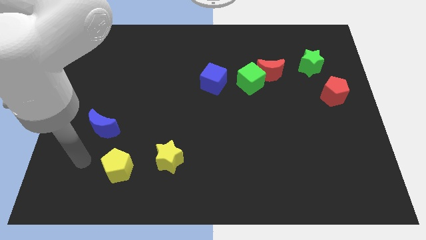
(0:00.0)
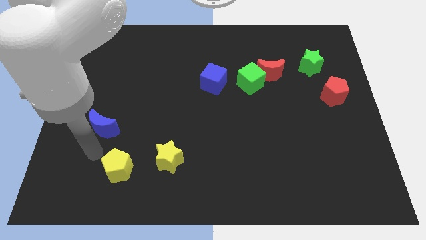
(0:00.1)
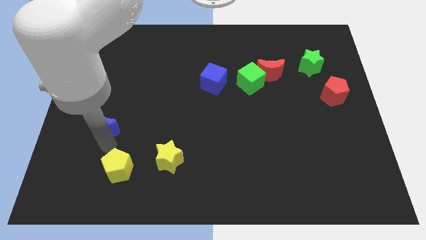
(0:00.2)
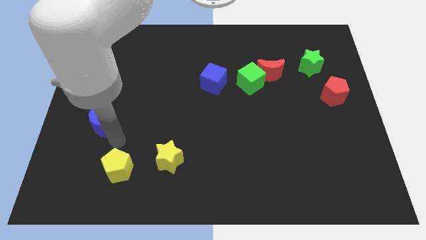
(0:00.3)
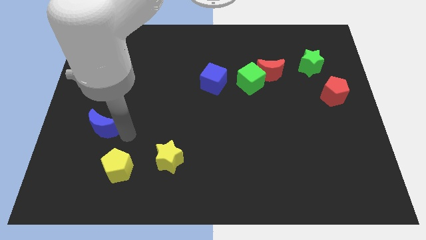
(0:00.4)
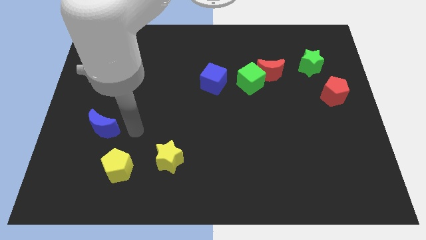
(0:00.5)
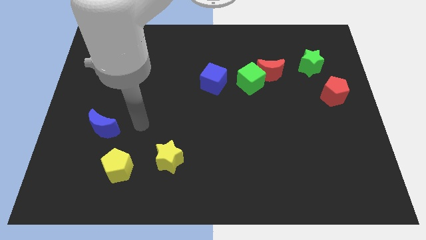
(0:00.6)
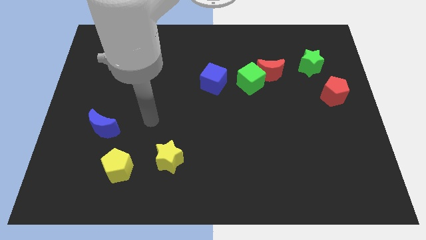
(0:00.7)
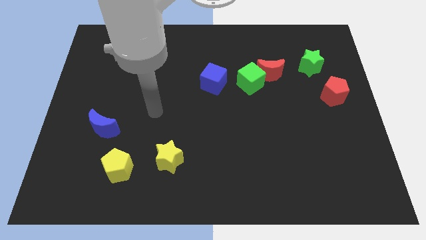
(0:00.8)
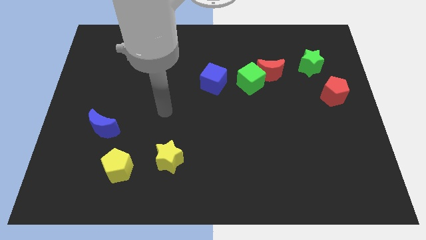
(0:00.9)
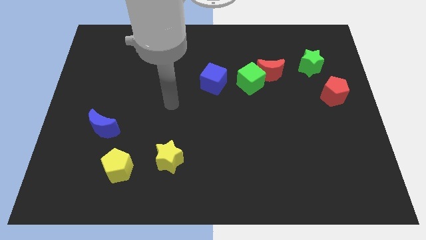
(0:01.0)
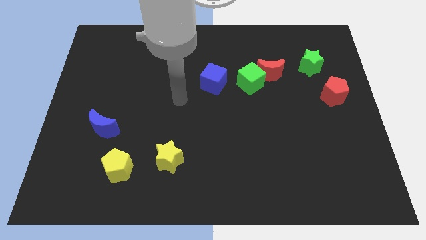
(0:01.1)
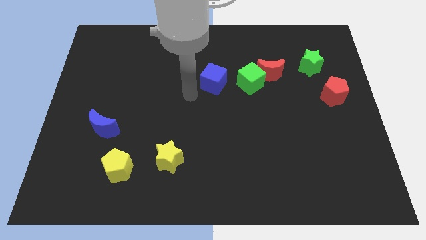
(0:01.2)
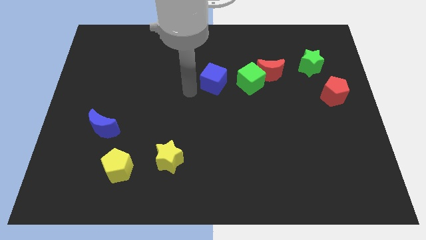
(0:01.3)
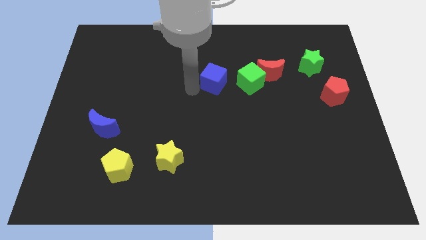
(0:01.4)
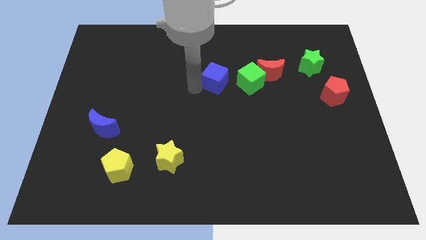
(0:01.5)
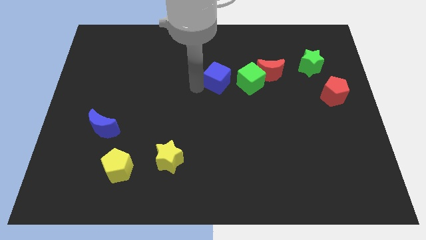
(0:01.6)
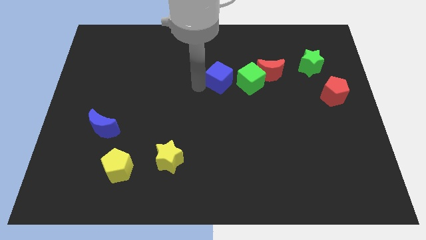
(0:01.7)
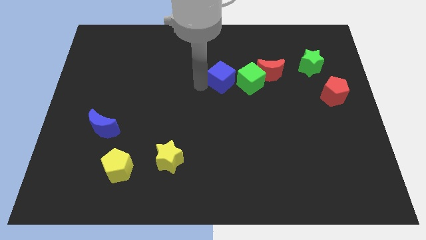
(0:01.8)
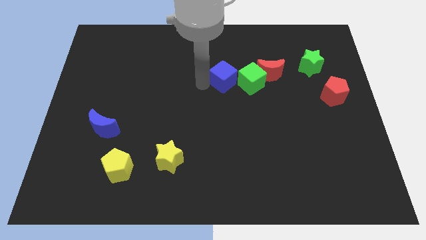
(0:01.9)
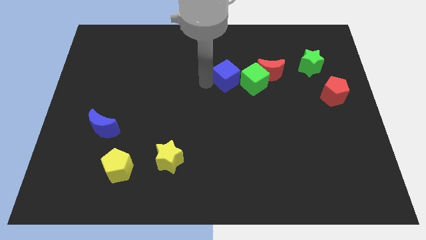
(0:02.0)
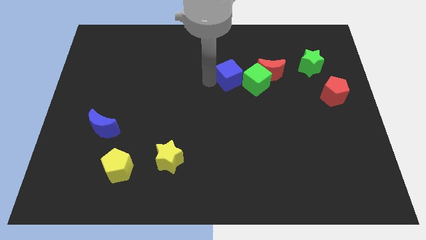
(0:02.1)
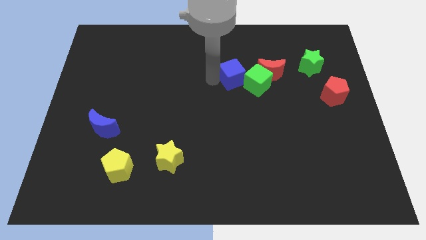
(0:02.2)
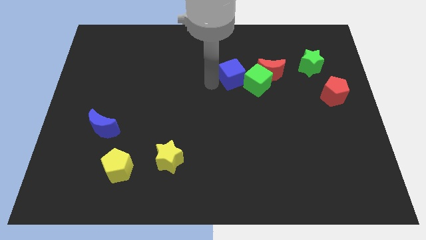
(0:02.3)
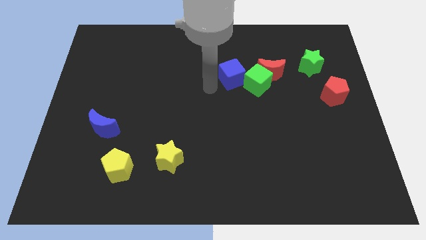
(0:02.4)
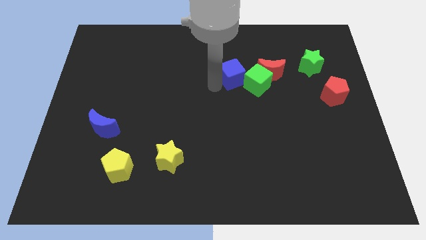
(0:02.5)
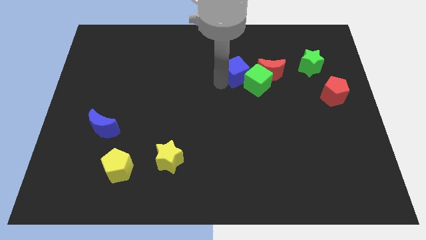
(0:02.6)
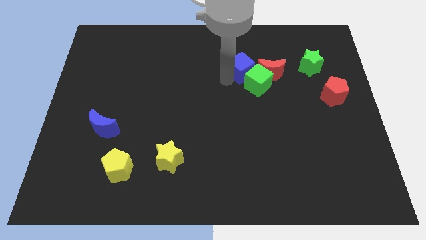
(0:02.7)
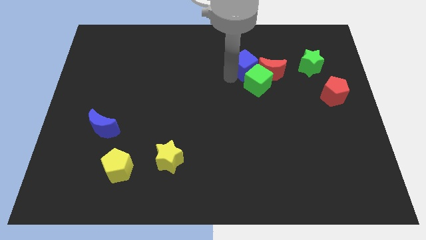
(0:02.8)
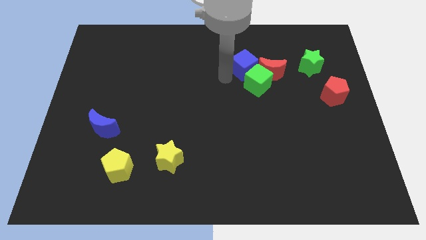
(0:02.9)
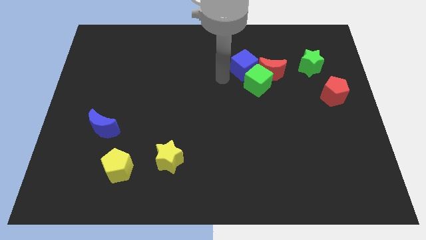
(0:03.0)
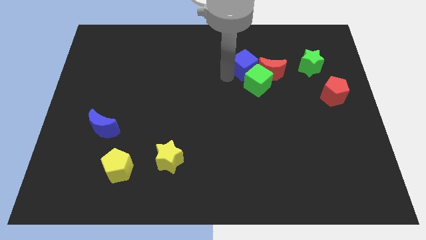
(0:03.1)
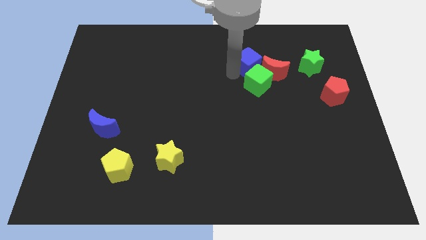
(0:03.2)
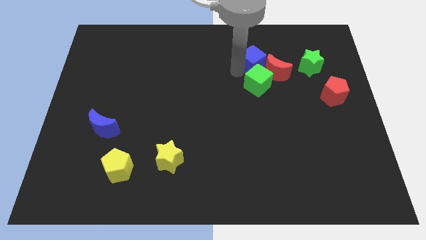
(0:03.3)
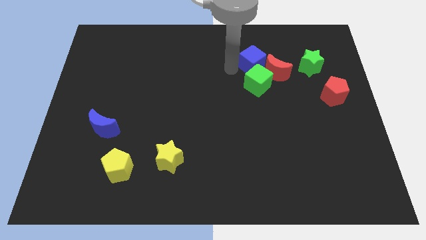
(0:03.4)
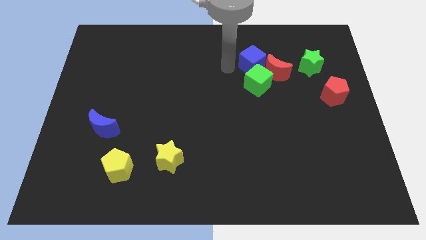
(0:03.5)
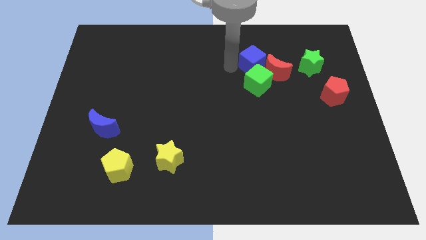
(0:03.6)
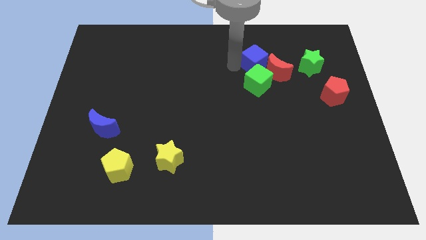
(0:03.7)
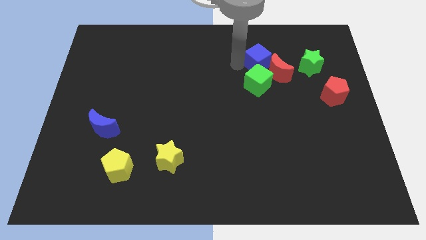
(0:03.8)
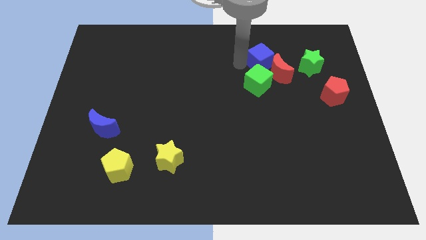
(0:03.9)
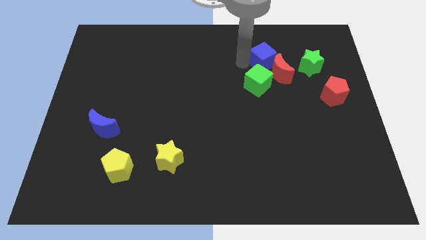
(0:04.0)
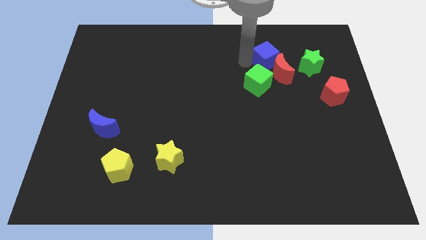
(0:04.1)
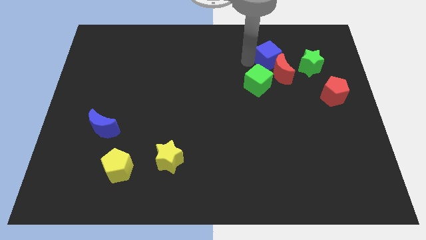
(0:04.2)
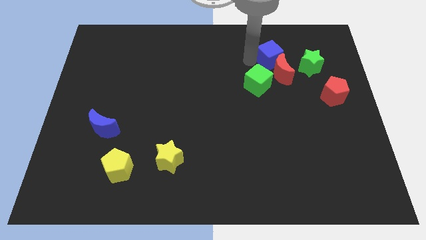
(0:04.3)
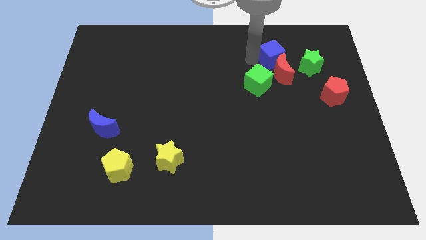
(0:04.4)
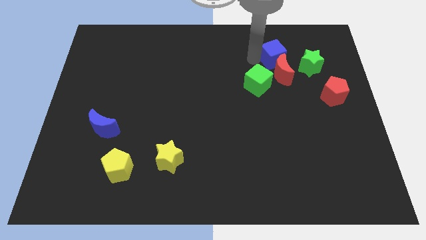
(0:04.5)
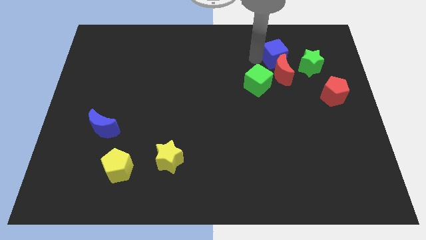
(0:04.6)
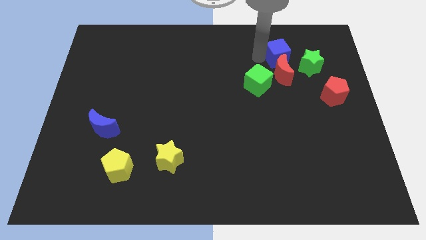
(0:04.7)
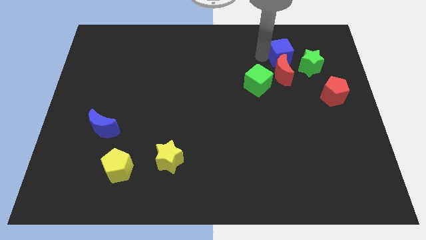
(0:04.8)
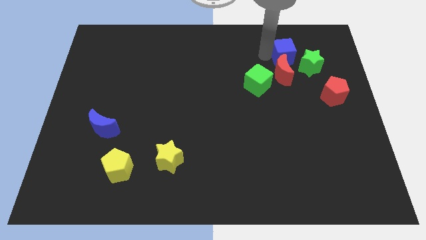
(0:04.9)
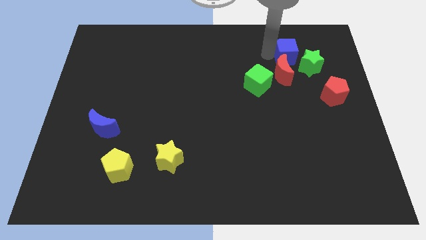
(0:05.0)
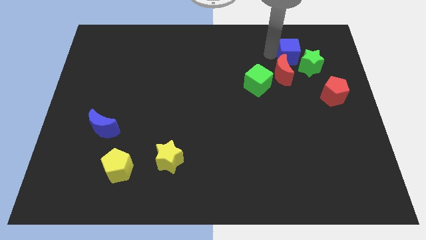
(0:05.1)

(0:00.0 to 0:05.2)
move the blue cube towards the green star

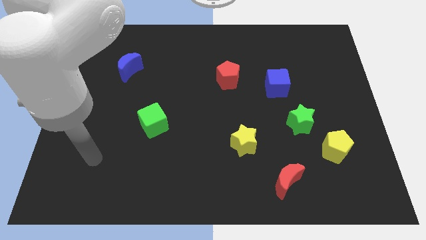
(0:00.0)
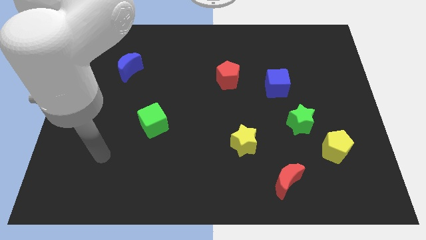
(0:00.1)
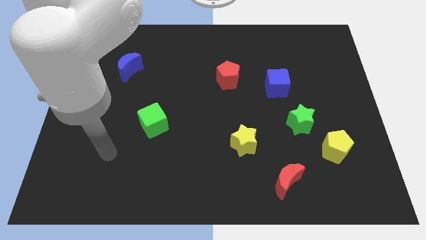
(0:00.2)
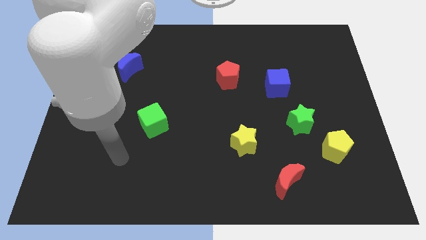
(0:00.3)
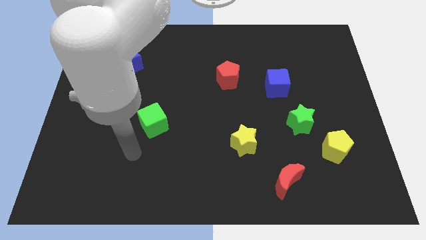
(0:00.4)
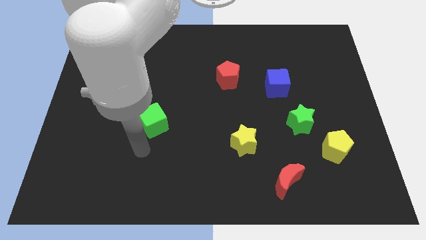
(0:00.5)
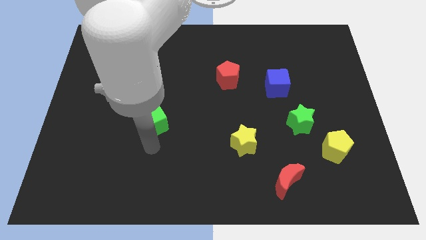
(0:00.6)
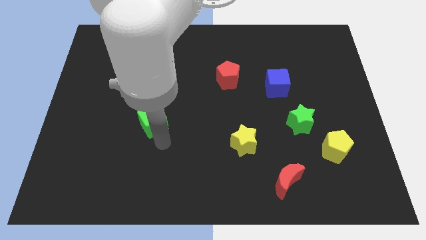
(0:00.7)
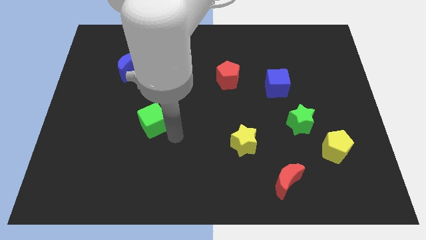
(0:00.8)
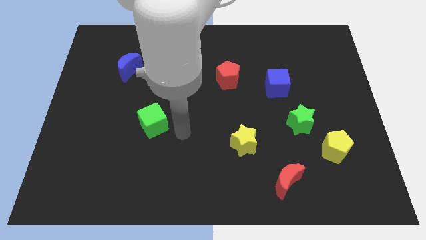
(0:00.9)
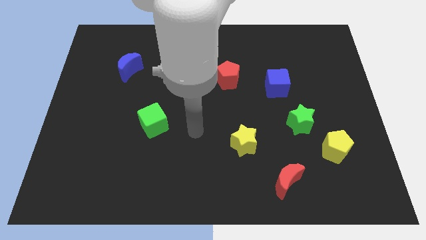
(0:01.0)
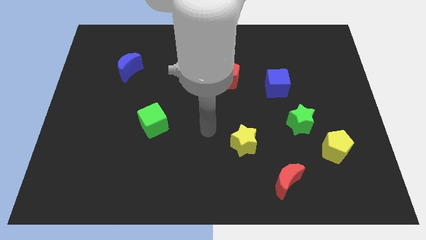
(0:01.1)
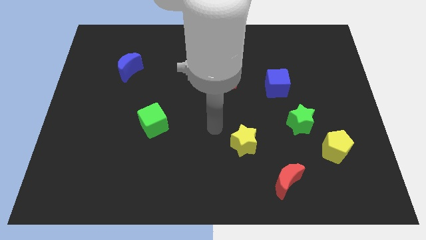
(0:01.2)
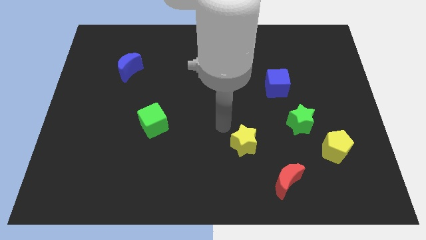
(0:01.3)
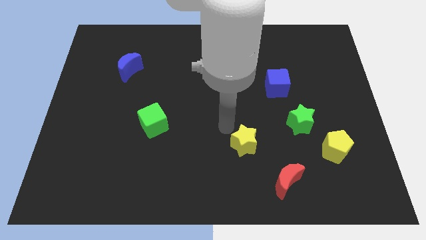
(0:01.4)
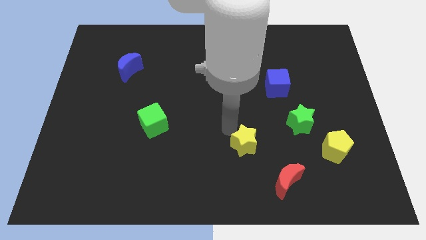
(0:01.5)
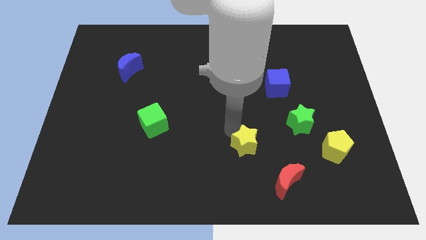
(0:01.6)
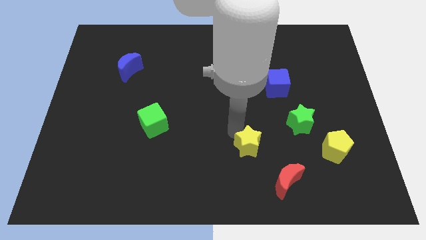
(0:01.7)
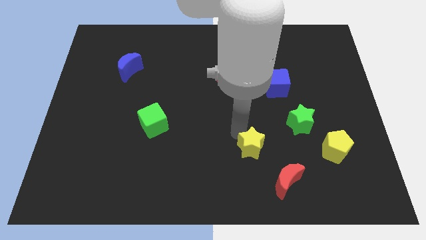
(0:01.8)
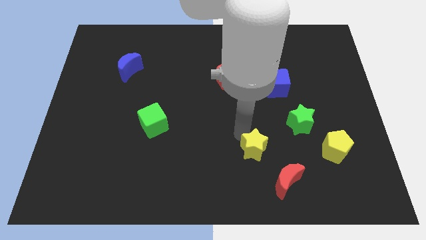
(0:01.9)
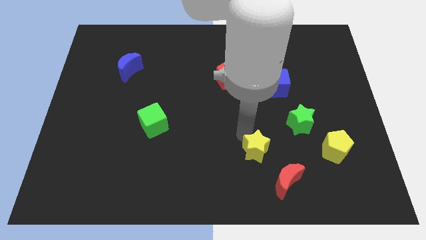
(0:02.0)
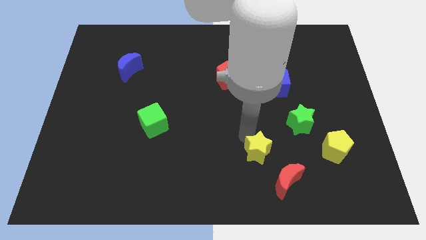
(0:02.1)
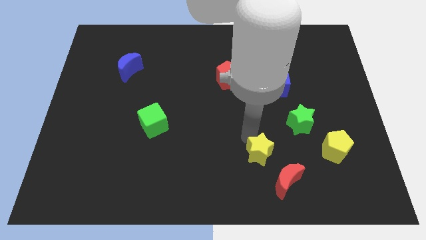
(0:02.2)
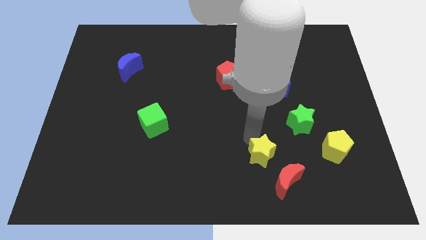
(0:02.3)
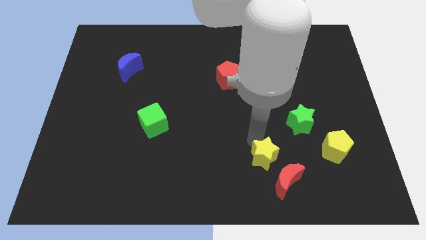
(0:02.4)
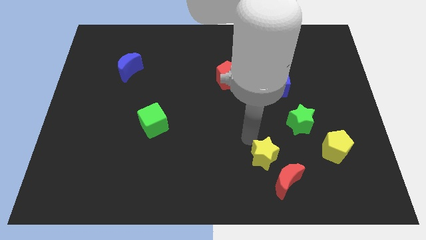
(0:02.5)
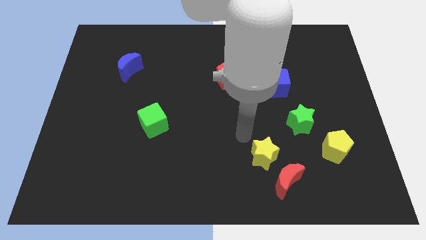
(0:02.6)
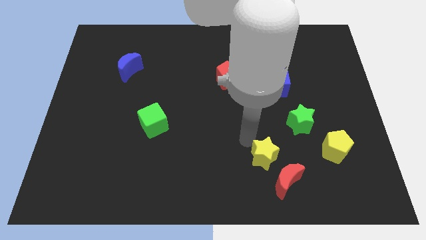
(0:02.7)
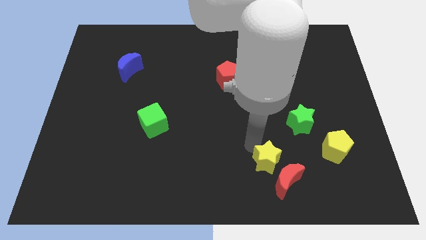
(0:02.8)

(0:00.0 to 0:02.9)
slide the yellow star next to the red moon
